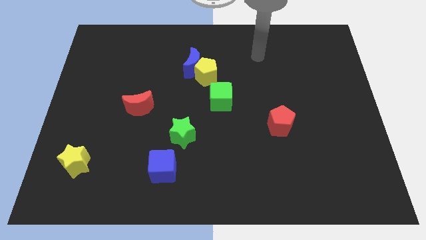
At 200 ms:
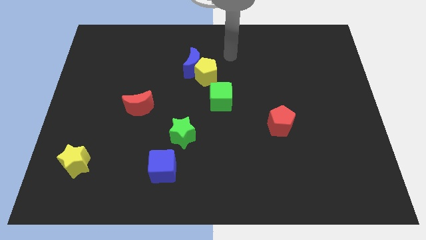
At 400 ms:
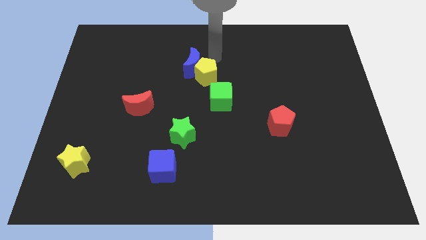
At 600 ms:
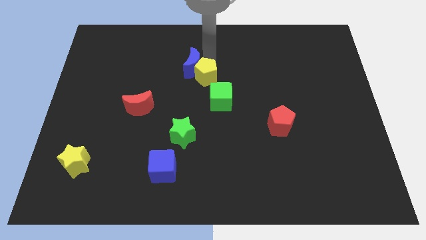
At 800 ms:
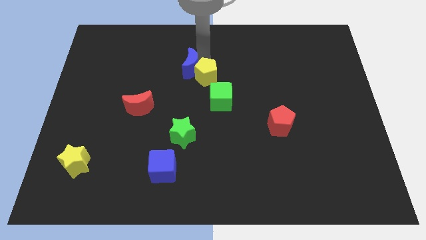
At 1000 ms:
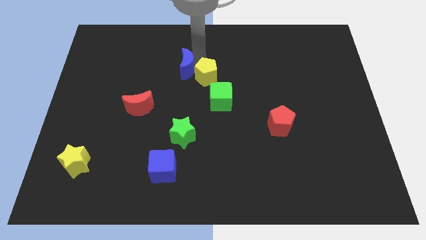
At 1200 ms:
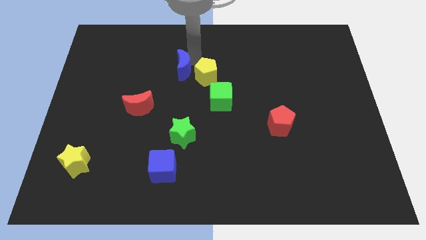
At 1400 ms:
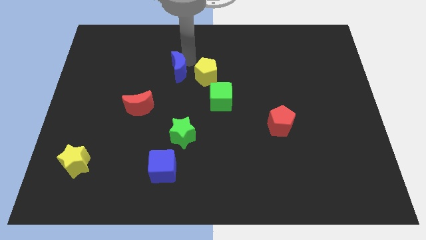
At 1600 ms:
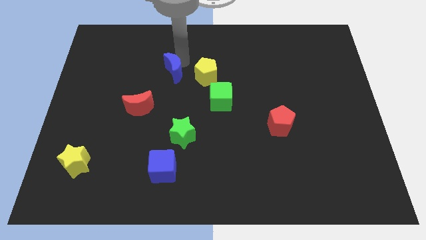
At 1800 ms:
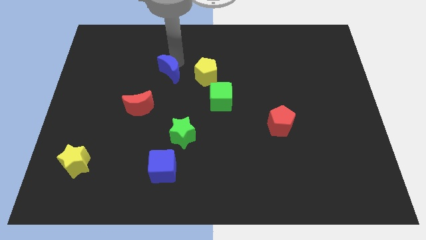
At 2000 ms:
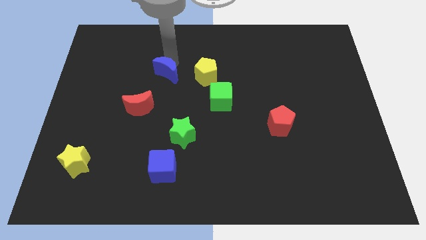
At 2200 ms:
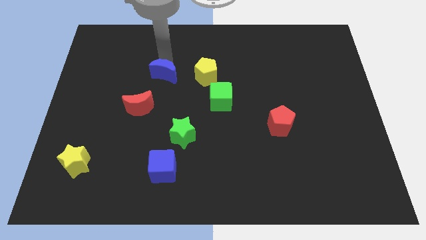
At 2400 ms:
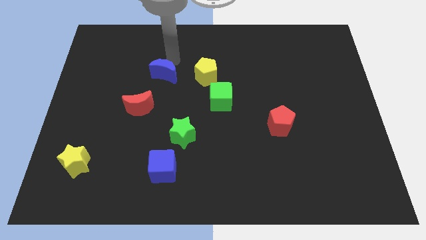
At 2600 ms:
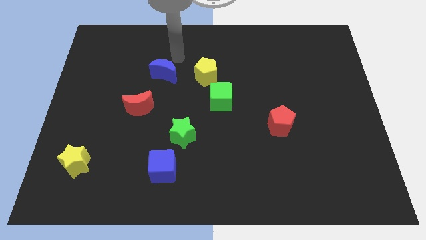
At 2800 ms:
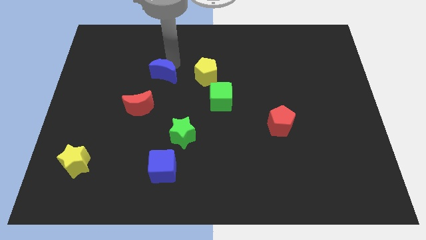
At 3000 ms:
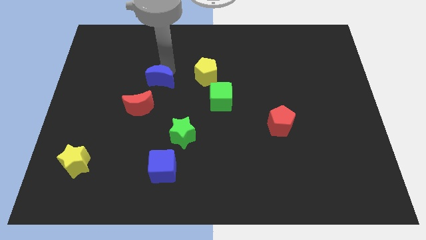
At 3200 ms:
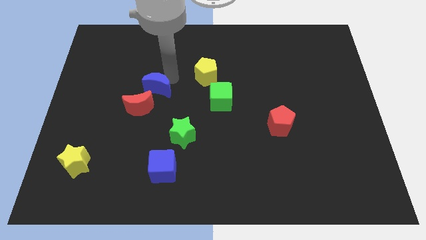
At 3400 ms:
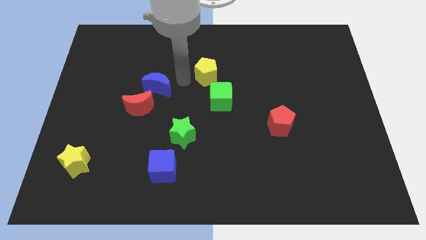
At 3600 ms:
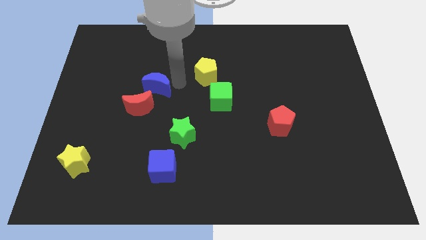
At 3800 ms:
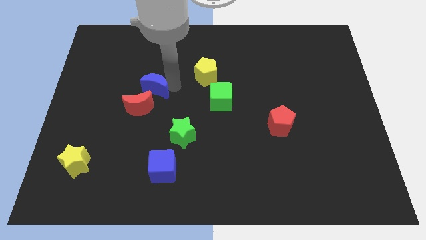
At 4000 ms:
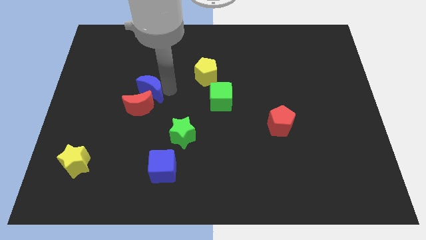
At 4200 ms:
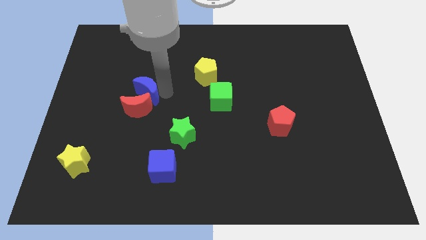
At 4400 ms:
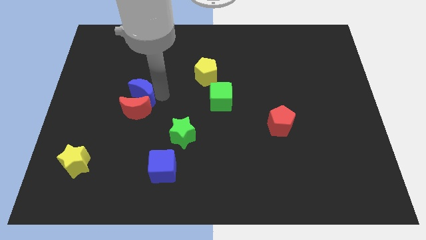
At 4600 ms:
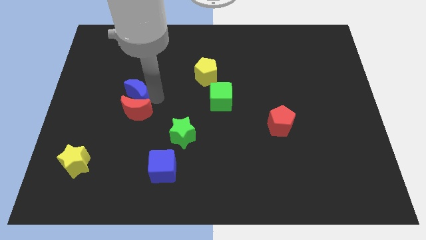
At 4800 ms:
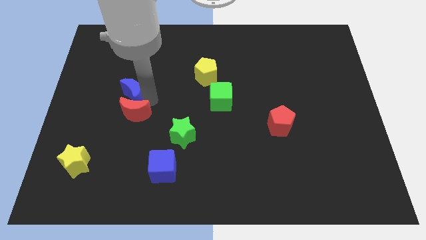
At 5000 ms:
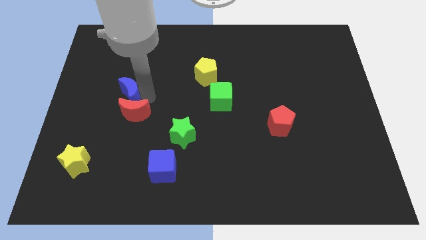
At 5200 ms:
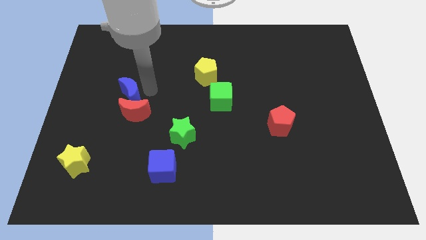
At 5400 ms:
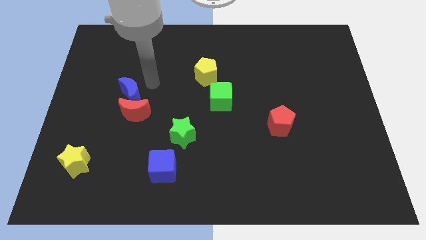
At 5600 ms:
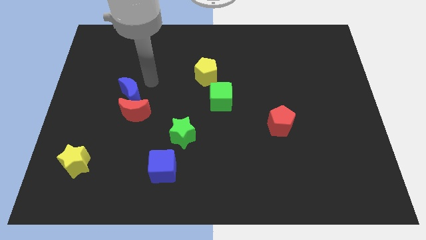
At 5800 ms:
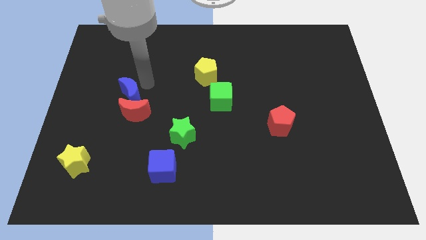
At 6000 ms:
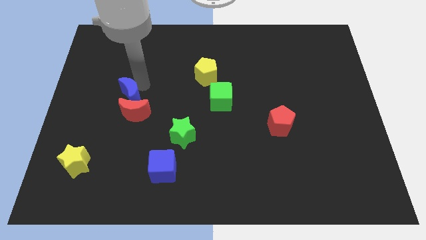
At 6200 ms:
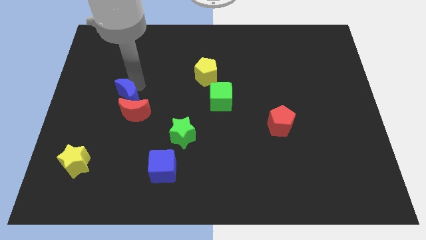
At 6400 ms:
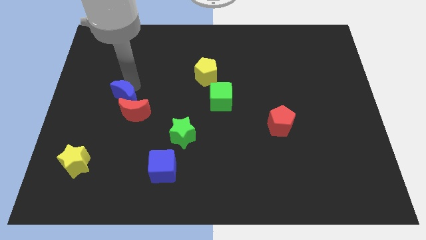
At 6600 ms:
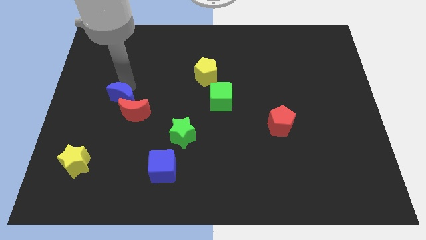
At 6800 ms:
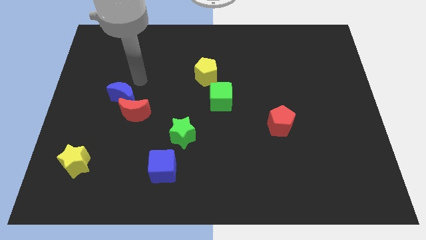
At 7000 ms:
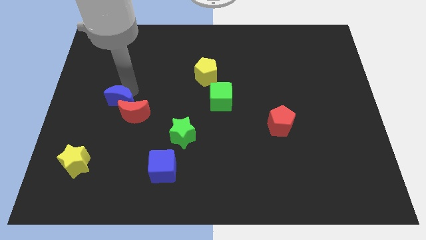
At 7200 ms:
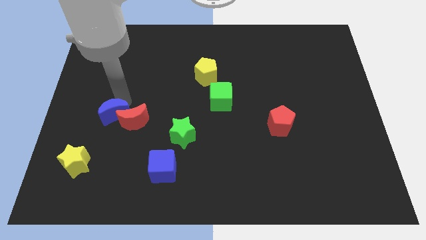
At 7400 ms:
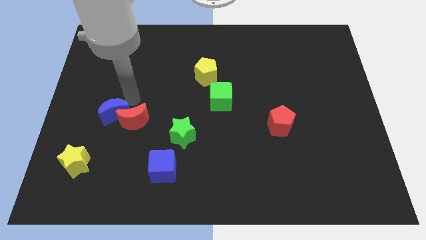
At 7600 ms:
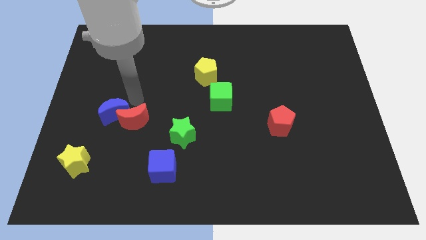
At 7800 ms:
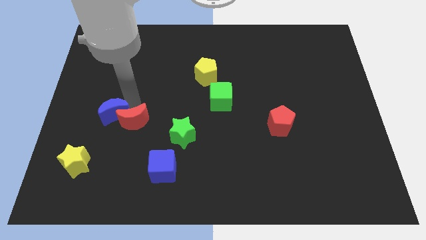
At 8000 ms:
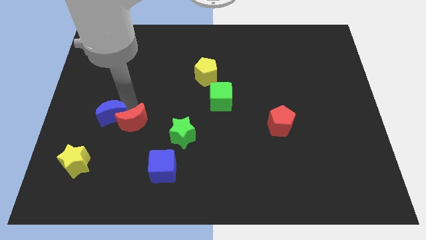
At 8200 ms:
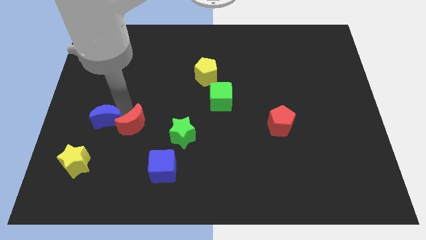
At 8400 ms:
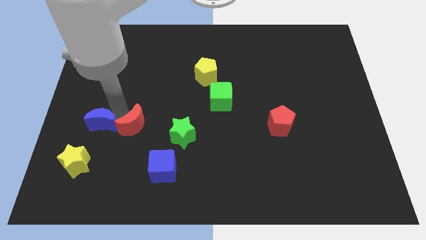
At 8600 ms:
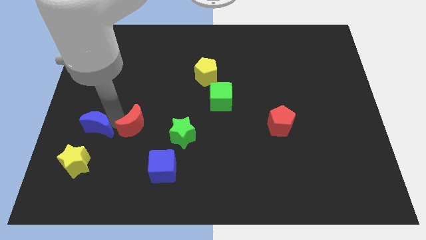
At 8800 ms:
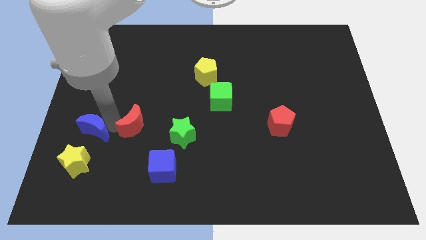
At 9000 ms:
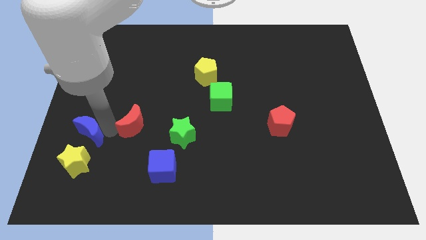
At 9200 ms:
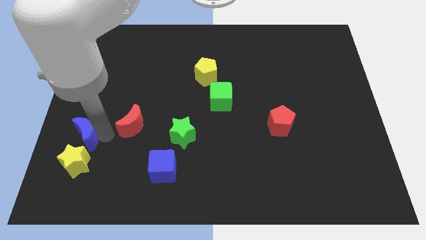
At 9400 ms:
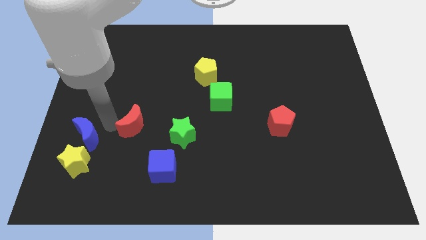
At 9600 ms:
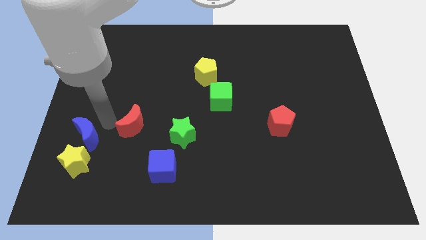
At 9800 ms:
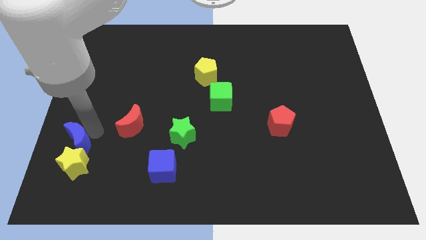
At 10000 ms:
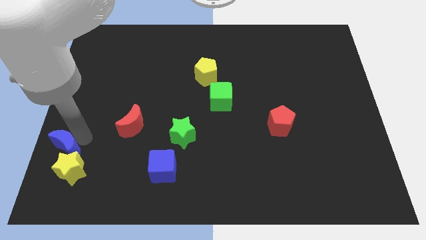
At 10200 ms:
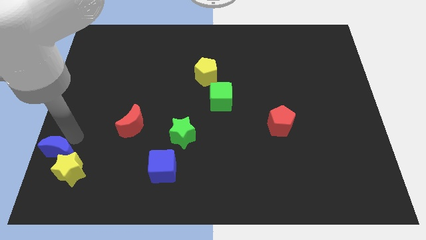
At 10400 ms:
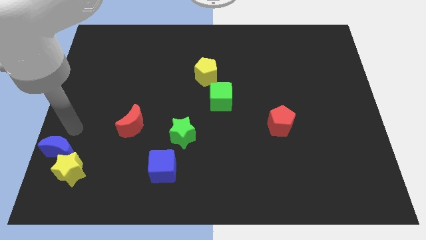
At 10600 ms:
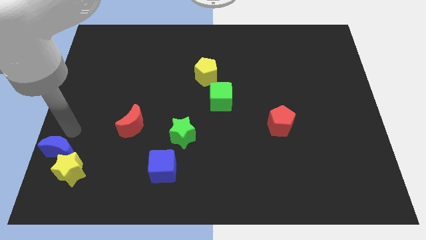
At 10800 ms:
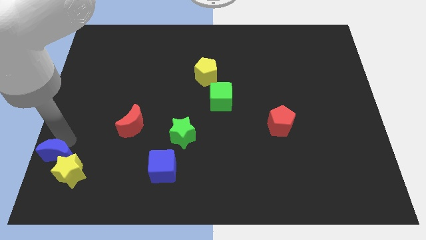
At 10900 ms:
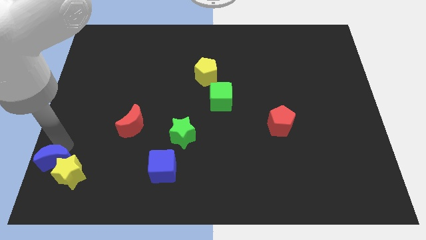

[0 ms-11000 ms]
push the blue moon to the lower left corner

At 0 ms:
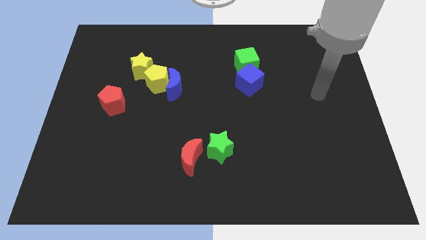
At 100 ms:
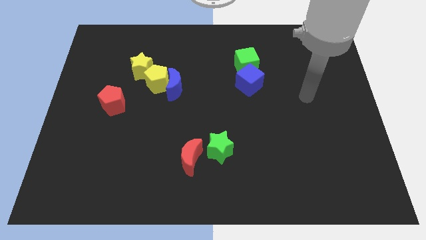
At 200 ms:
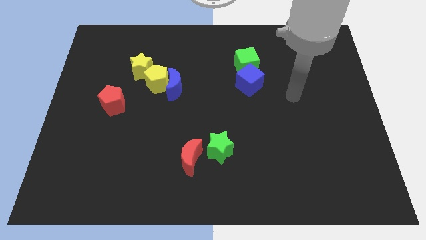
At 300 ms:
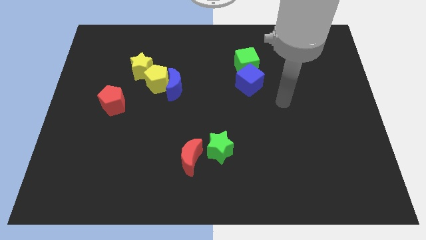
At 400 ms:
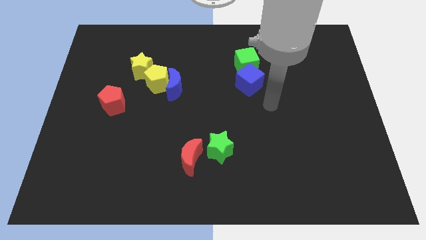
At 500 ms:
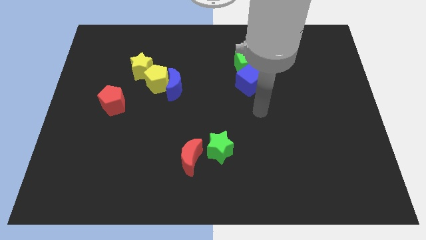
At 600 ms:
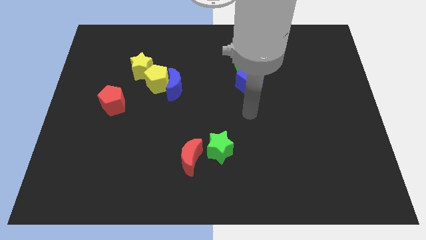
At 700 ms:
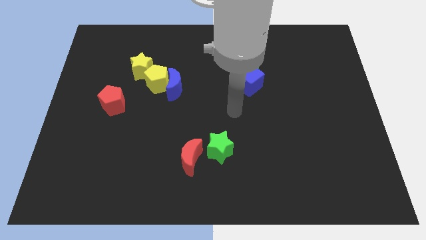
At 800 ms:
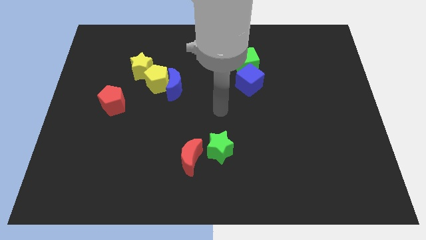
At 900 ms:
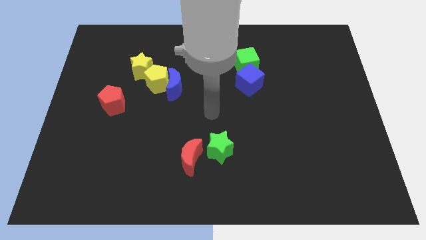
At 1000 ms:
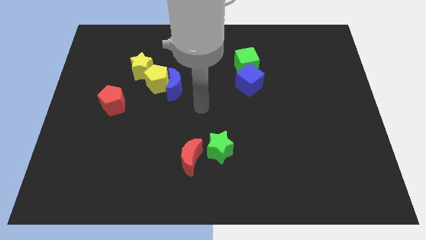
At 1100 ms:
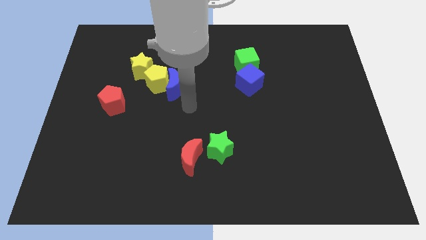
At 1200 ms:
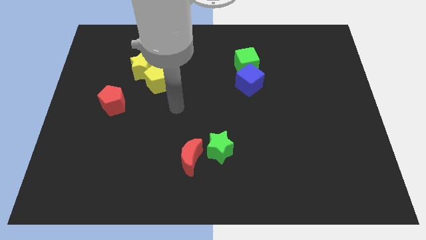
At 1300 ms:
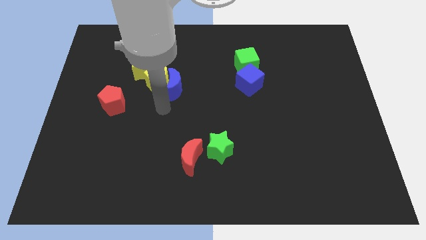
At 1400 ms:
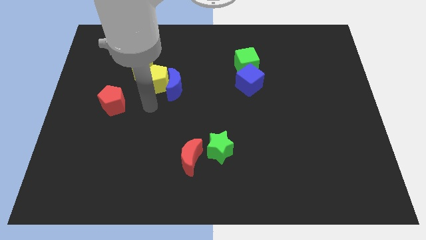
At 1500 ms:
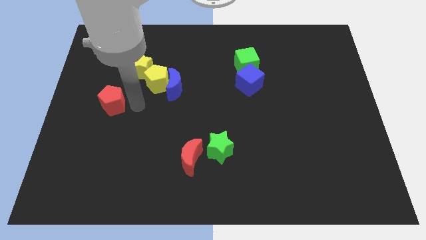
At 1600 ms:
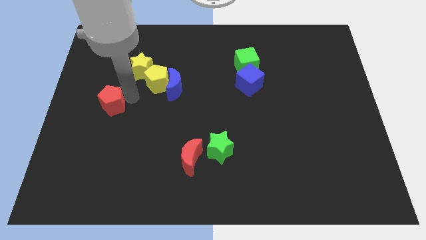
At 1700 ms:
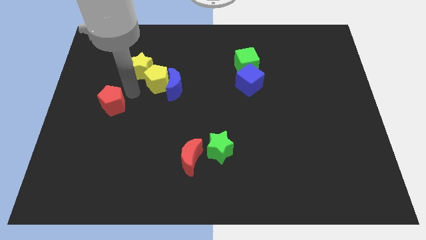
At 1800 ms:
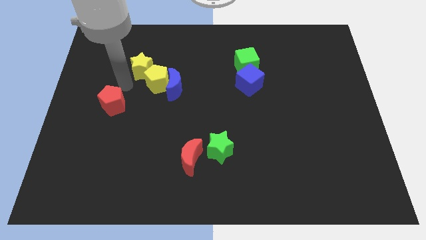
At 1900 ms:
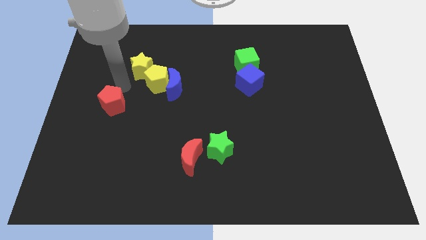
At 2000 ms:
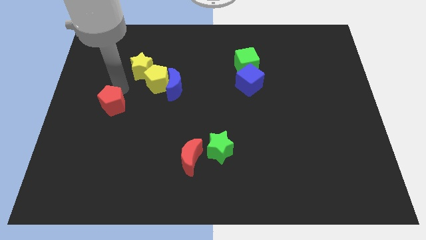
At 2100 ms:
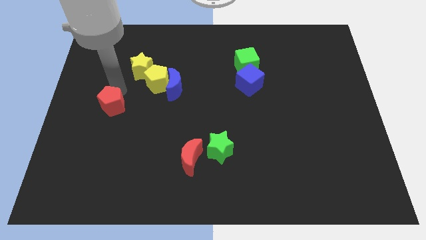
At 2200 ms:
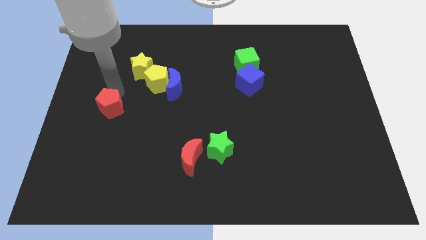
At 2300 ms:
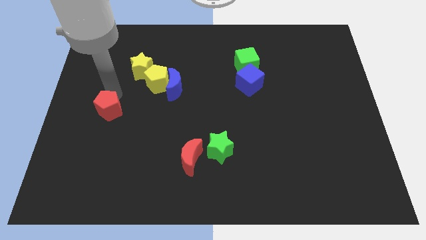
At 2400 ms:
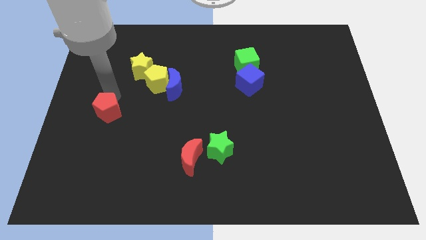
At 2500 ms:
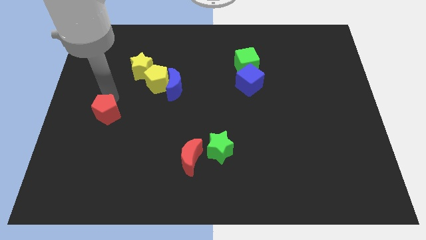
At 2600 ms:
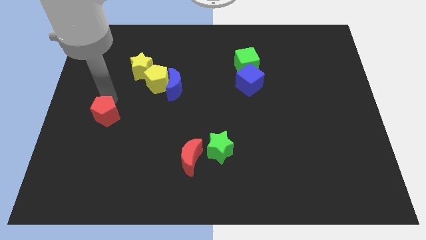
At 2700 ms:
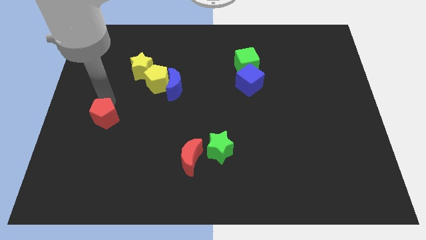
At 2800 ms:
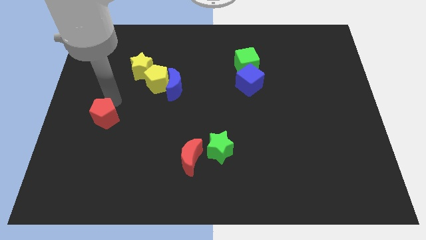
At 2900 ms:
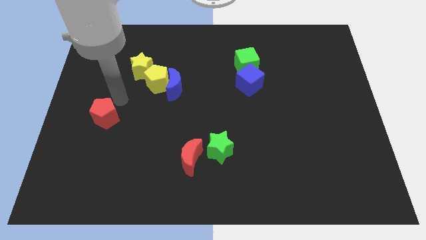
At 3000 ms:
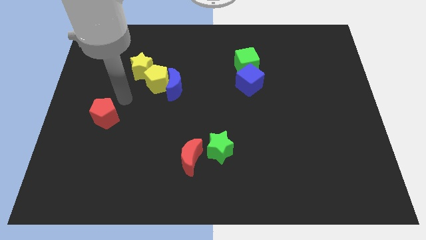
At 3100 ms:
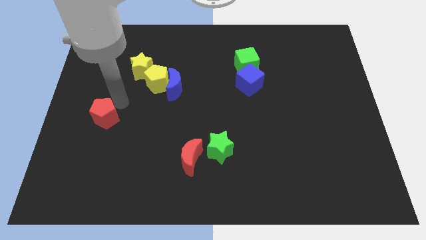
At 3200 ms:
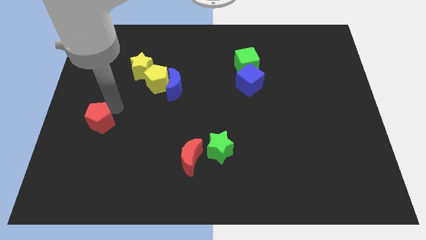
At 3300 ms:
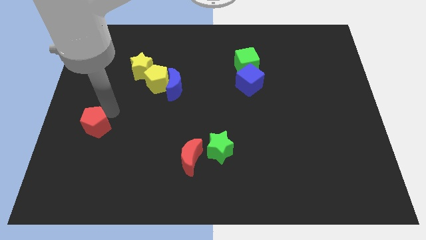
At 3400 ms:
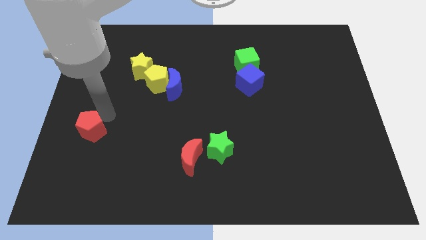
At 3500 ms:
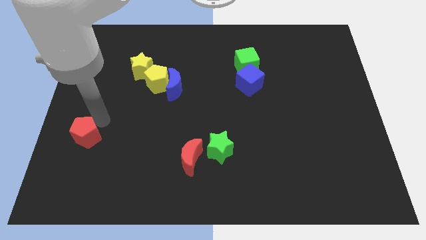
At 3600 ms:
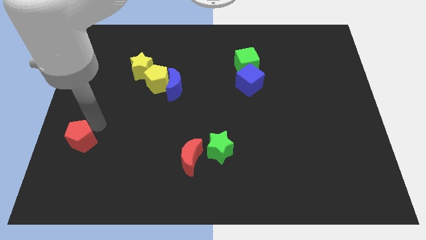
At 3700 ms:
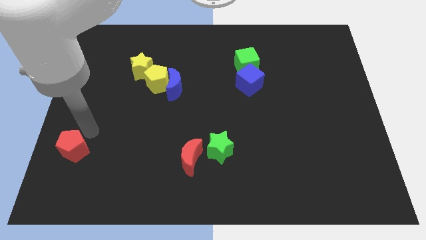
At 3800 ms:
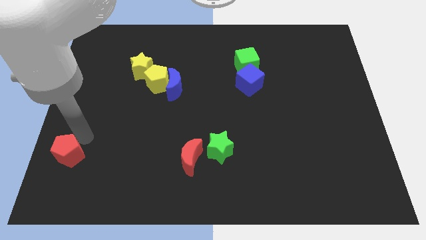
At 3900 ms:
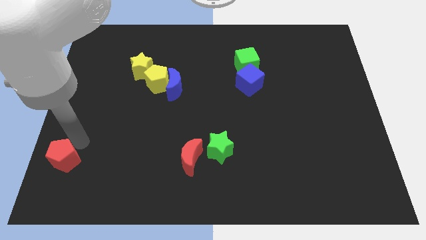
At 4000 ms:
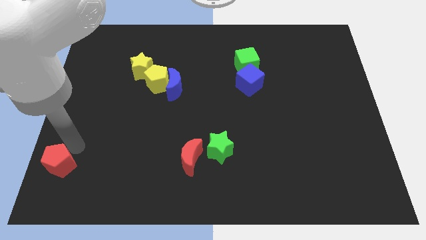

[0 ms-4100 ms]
move the red pentagon to the lower left corner
